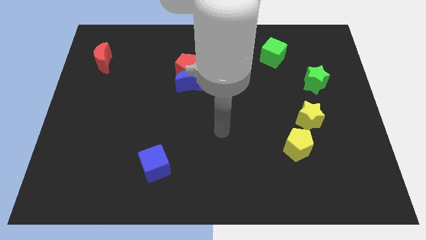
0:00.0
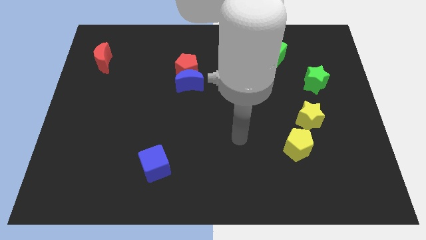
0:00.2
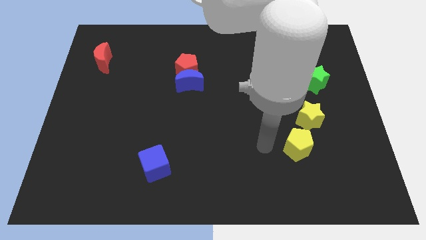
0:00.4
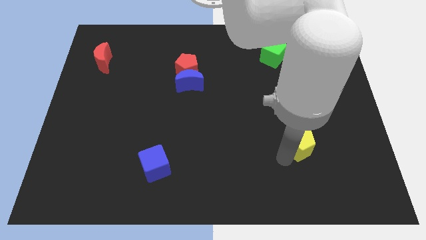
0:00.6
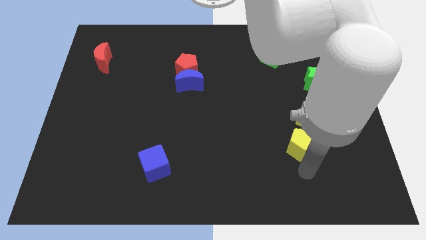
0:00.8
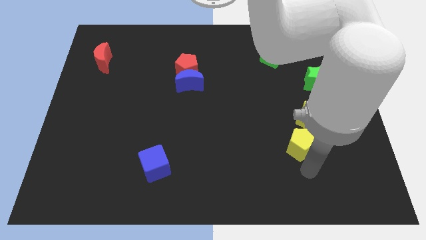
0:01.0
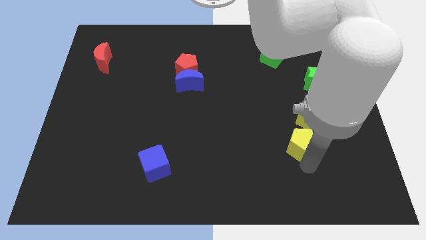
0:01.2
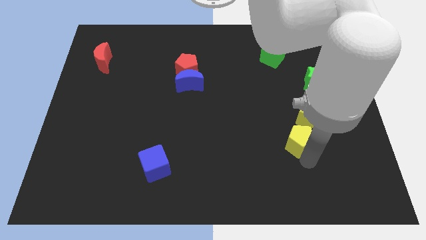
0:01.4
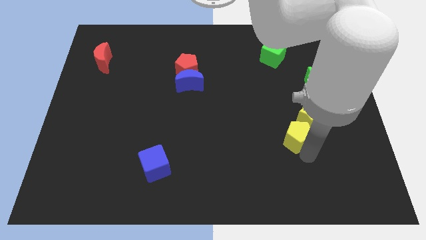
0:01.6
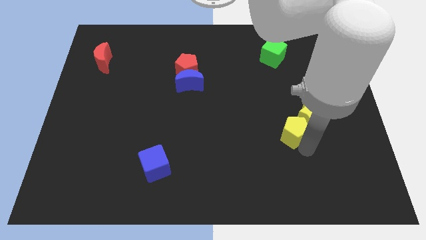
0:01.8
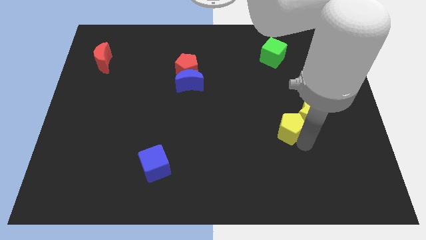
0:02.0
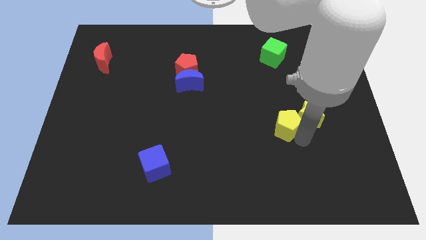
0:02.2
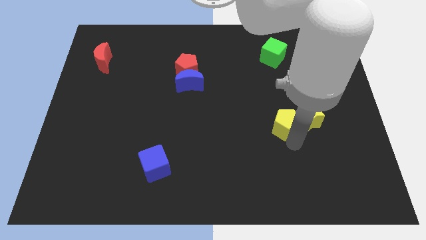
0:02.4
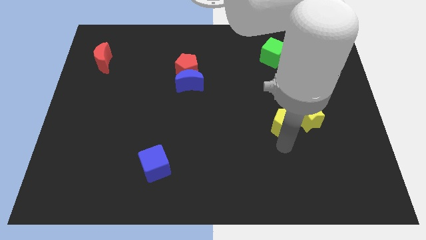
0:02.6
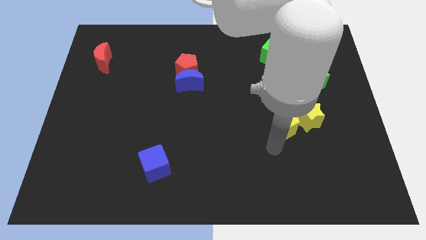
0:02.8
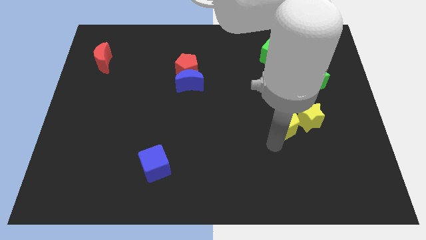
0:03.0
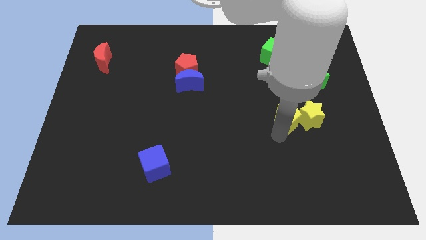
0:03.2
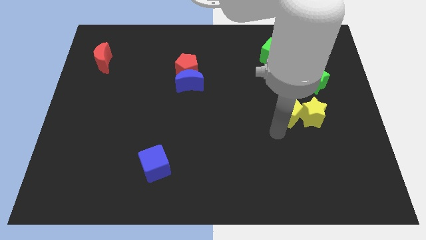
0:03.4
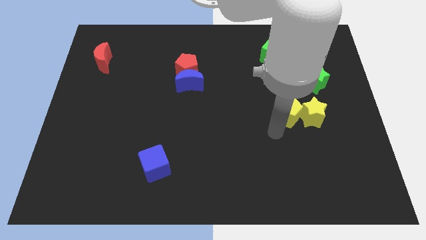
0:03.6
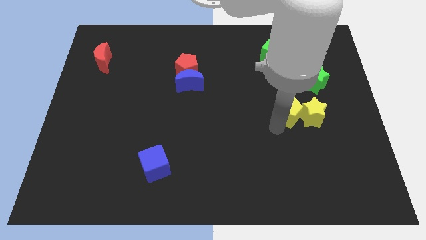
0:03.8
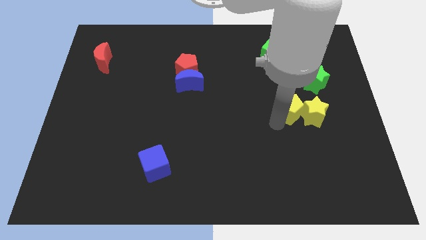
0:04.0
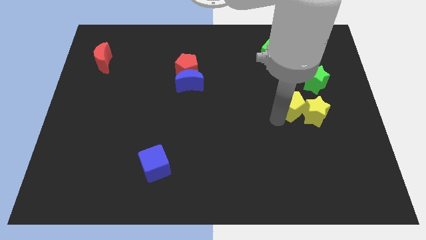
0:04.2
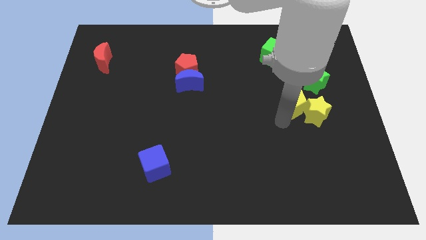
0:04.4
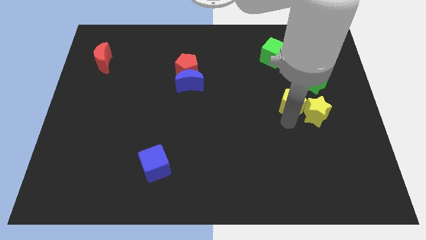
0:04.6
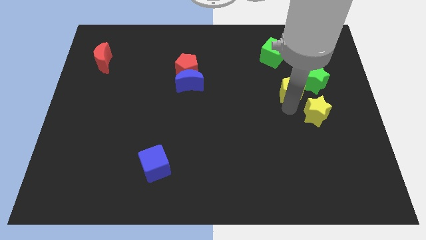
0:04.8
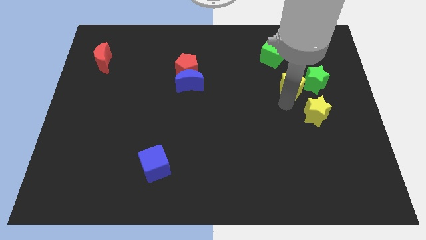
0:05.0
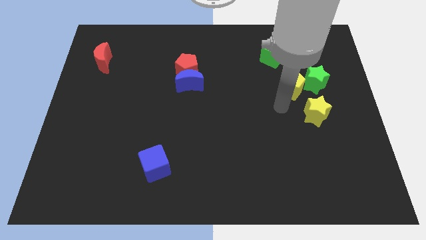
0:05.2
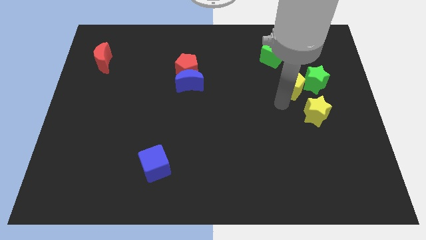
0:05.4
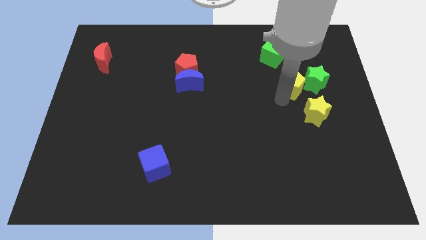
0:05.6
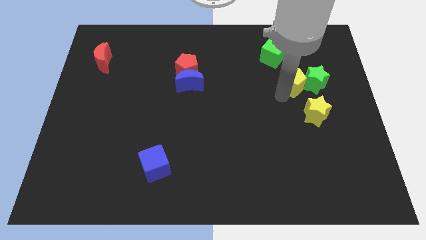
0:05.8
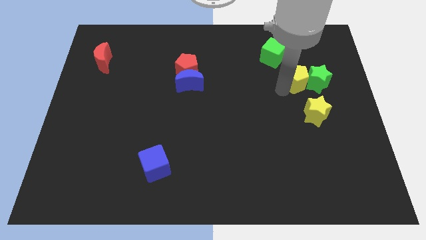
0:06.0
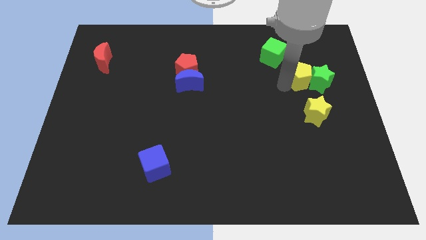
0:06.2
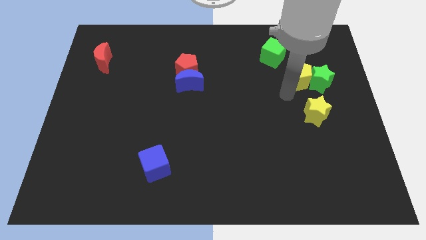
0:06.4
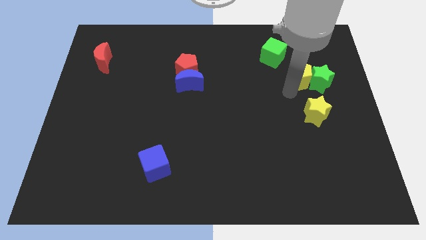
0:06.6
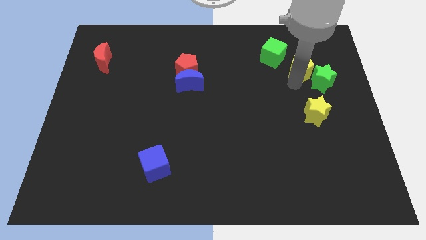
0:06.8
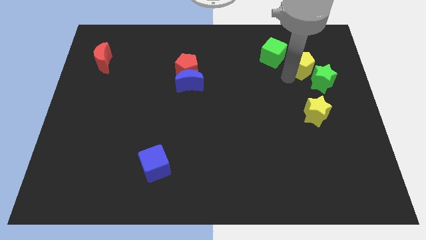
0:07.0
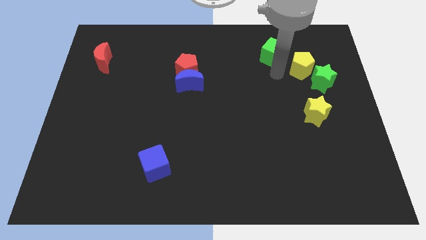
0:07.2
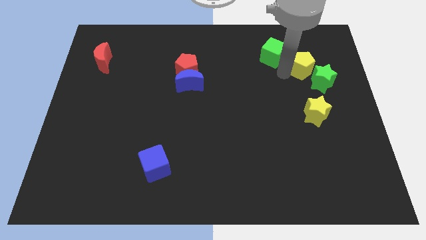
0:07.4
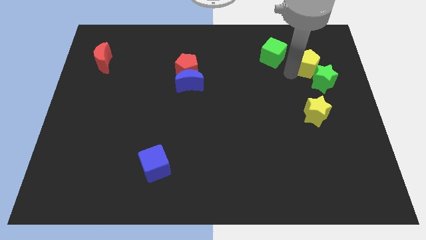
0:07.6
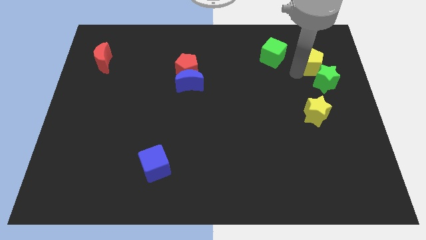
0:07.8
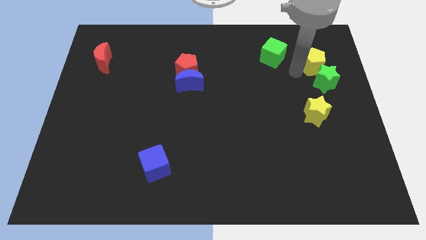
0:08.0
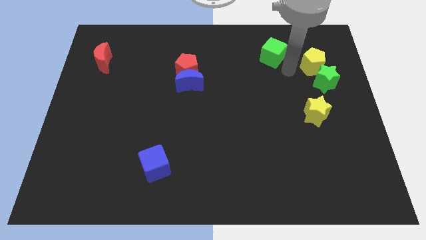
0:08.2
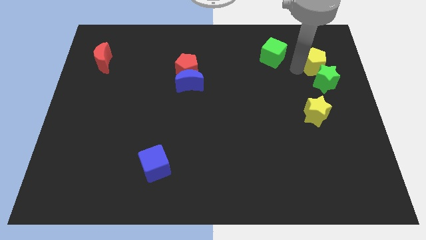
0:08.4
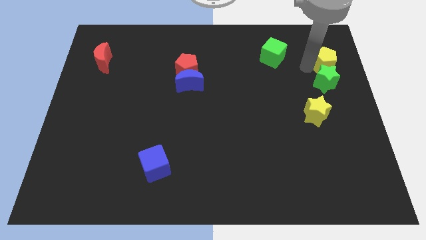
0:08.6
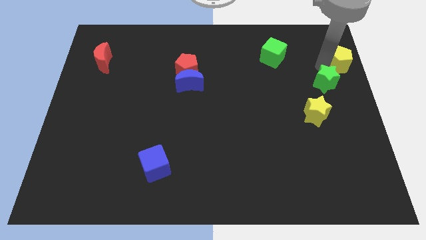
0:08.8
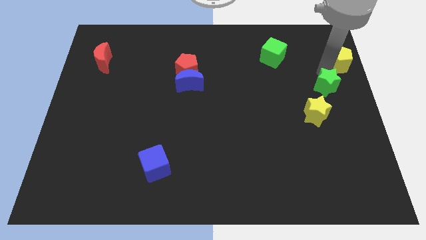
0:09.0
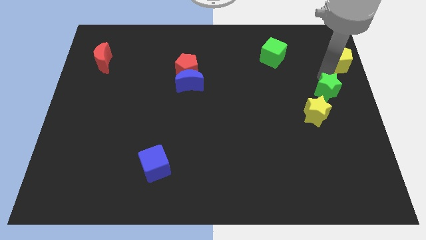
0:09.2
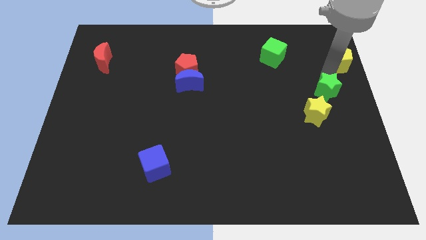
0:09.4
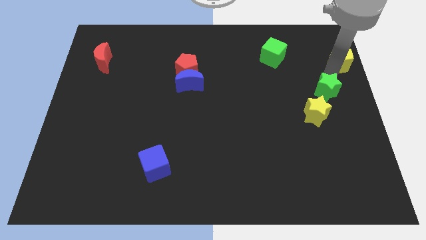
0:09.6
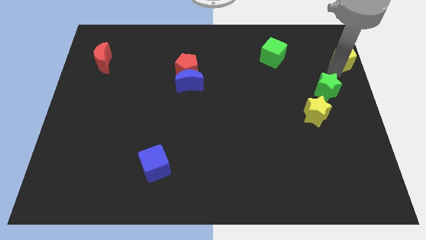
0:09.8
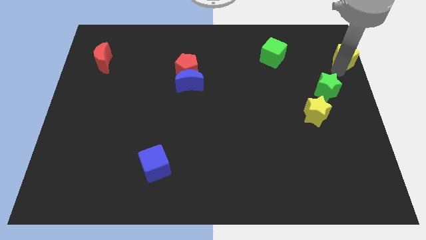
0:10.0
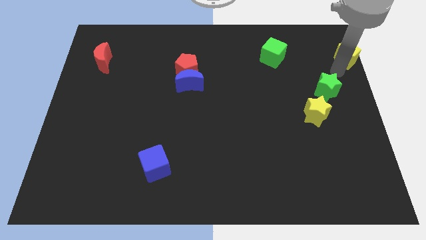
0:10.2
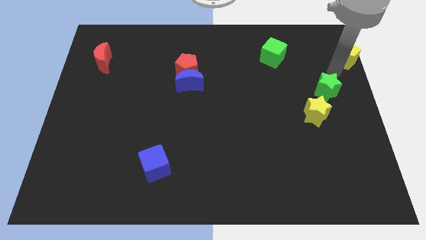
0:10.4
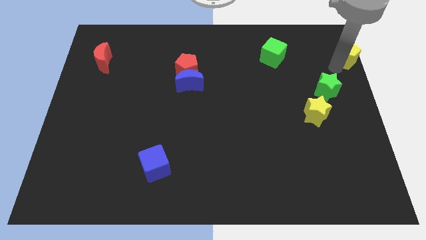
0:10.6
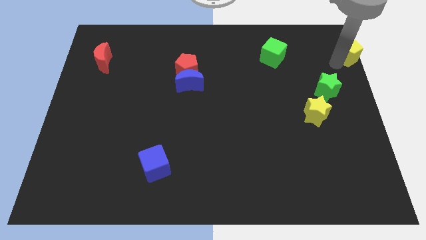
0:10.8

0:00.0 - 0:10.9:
push the yellow pentagon to the top right corner

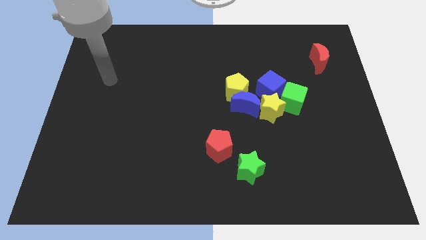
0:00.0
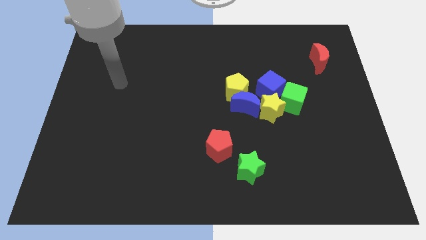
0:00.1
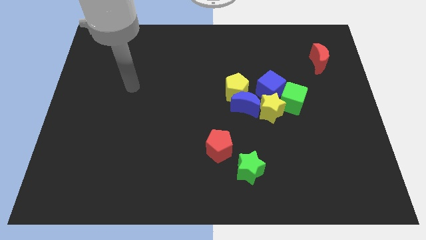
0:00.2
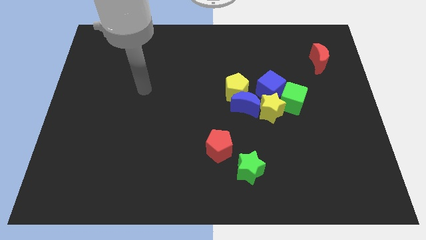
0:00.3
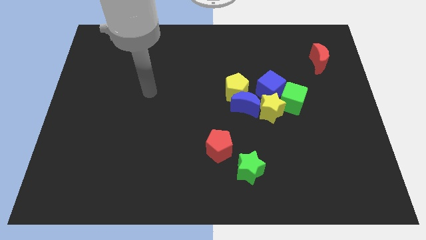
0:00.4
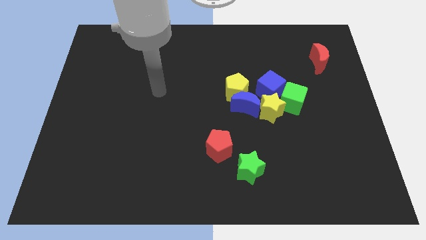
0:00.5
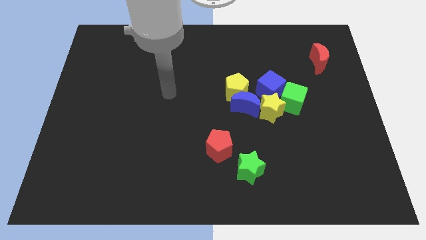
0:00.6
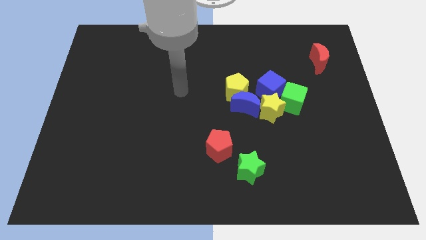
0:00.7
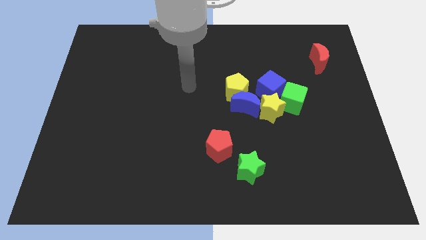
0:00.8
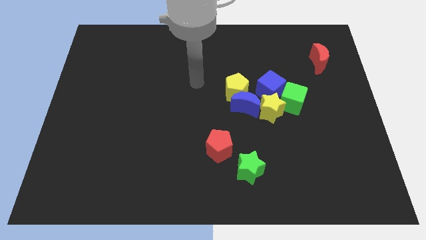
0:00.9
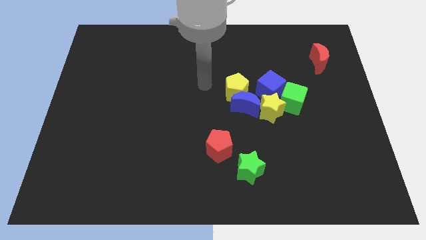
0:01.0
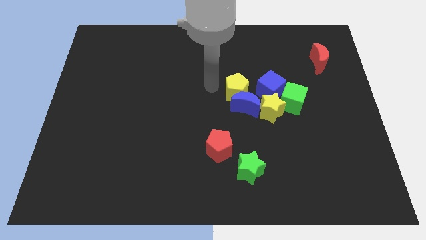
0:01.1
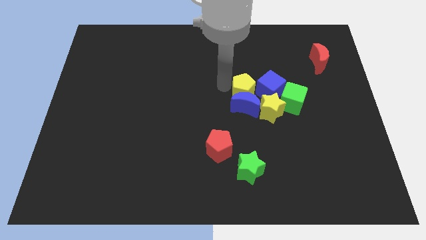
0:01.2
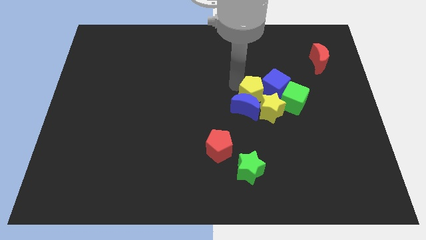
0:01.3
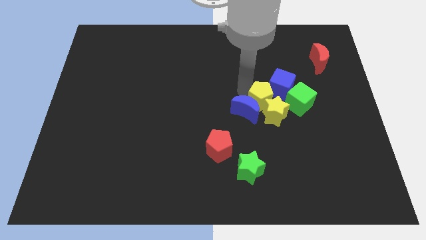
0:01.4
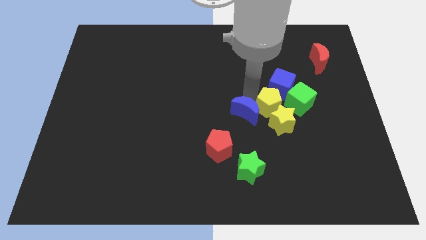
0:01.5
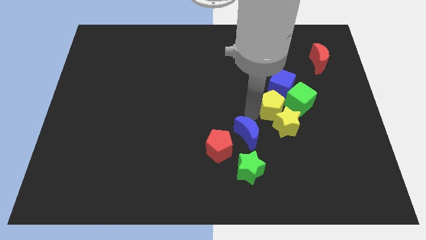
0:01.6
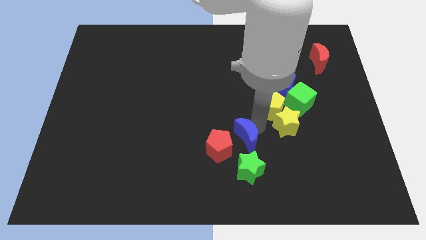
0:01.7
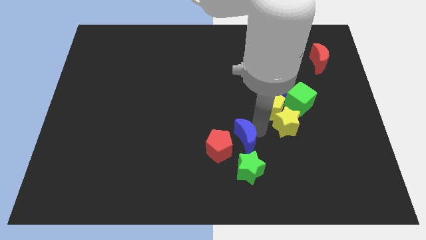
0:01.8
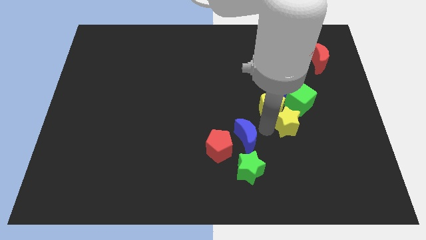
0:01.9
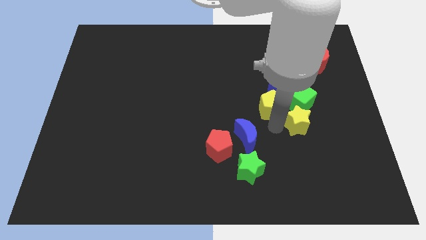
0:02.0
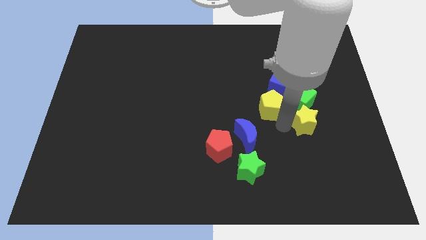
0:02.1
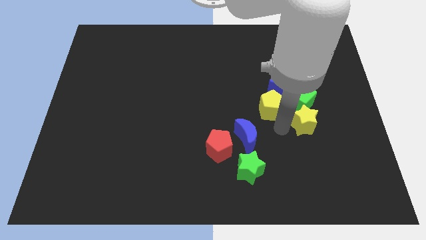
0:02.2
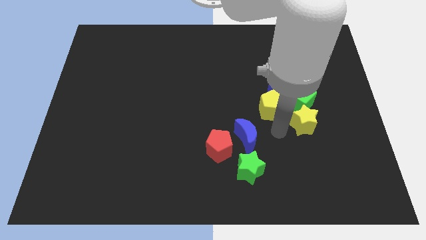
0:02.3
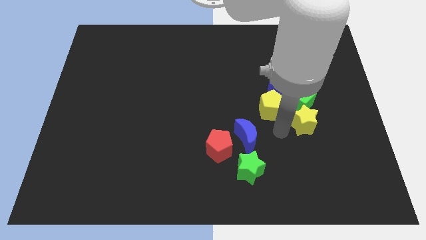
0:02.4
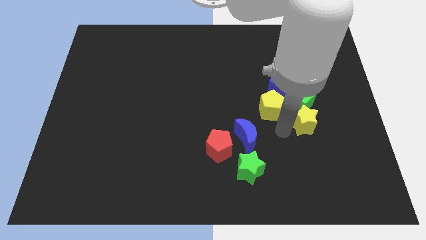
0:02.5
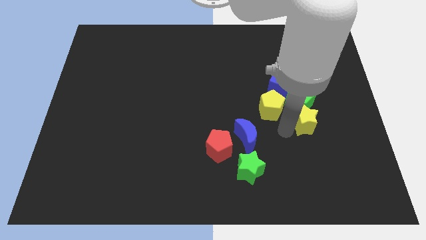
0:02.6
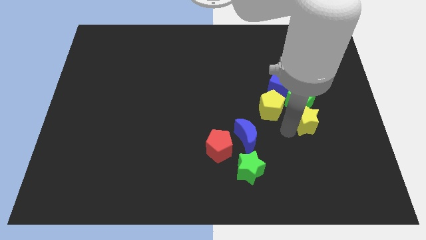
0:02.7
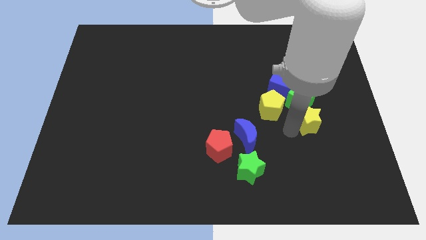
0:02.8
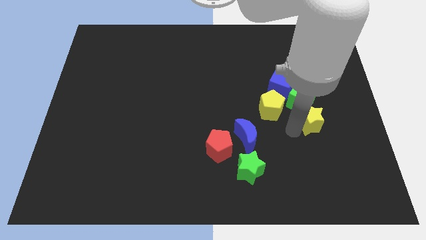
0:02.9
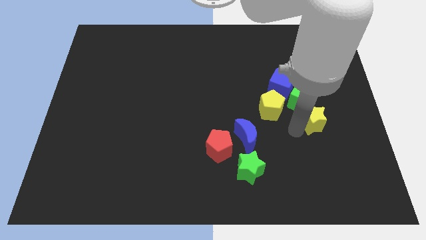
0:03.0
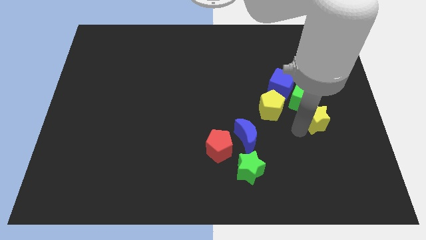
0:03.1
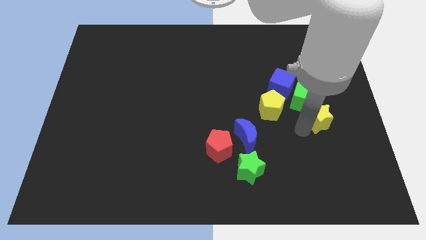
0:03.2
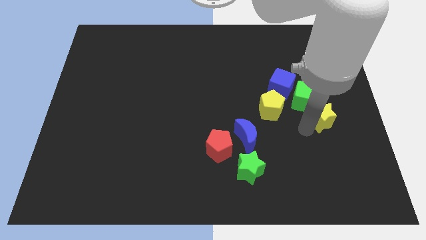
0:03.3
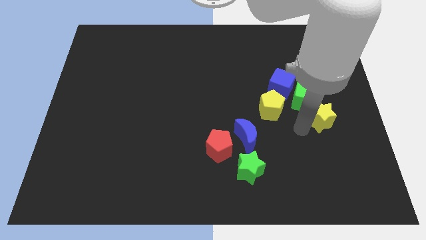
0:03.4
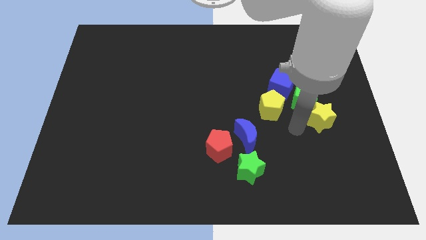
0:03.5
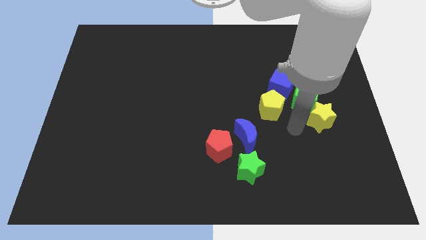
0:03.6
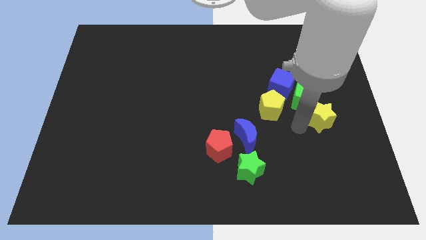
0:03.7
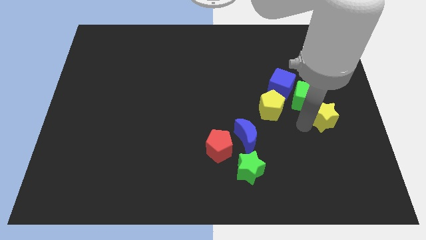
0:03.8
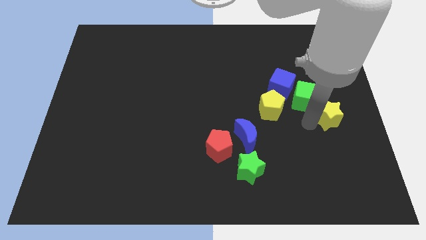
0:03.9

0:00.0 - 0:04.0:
slide the yellow star to the right side of the board
